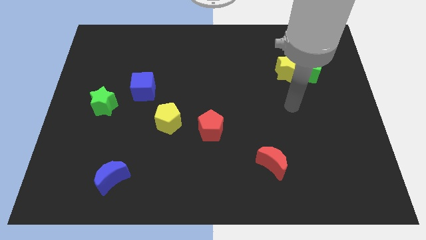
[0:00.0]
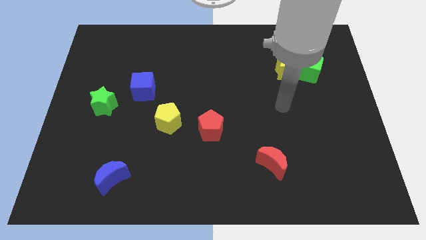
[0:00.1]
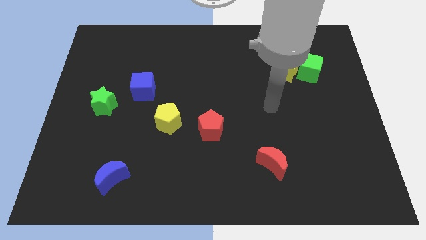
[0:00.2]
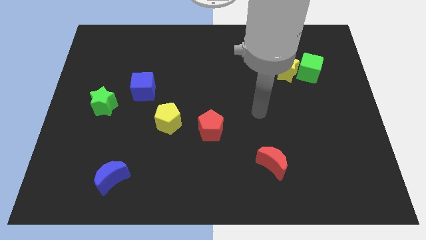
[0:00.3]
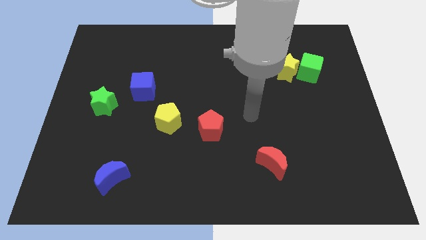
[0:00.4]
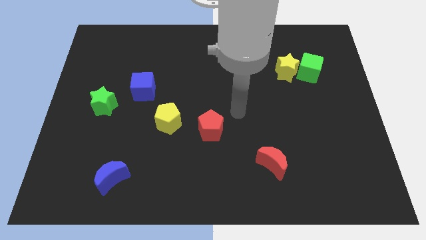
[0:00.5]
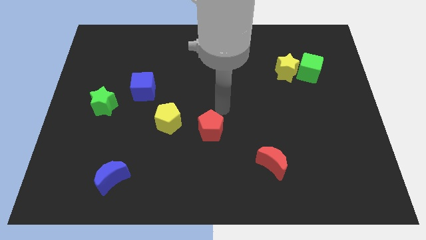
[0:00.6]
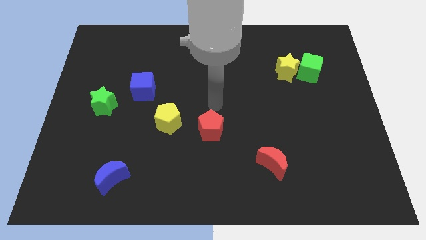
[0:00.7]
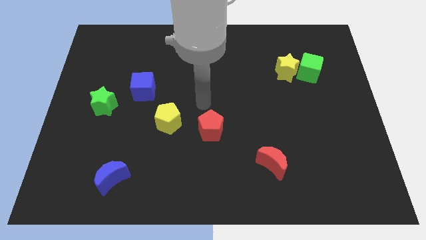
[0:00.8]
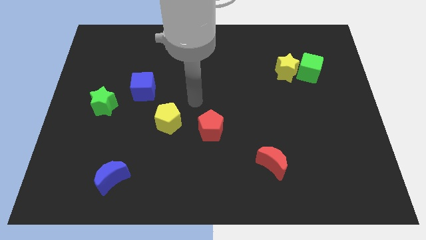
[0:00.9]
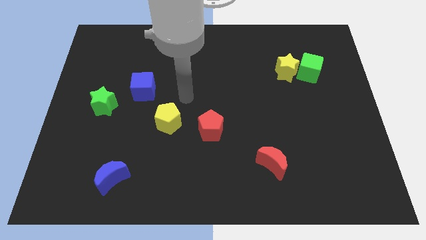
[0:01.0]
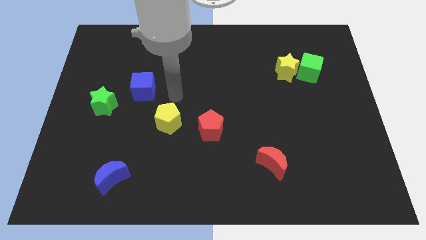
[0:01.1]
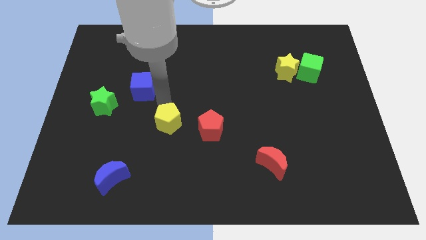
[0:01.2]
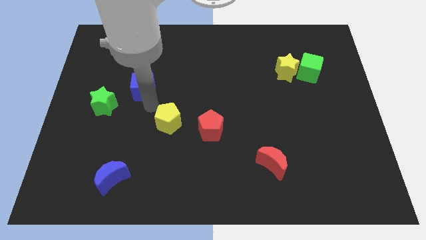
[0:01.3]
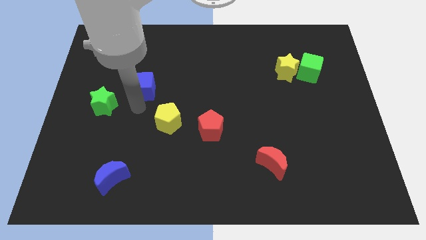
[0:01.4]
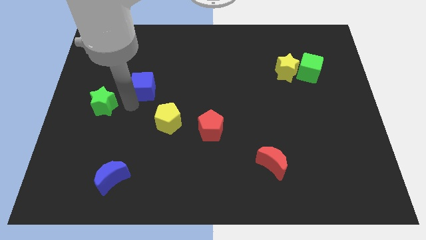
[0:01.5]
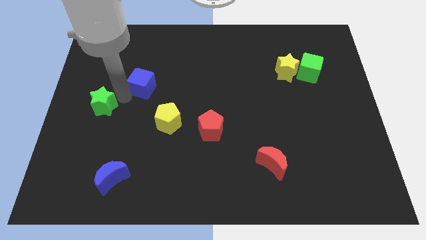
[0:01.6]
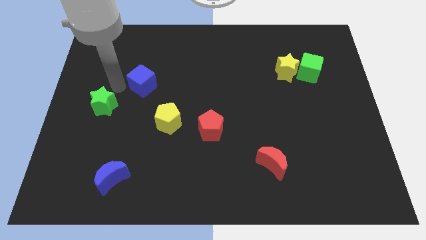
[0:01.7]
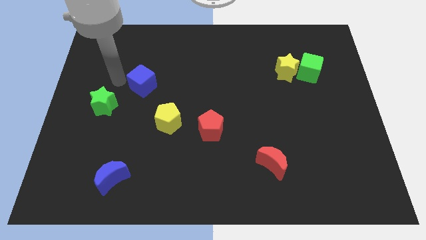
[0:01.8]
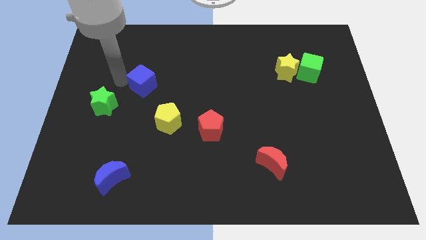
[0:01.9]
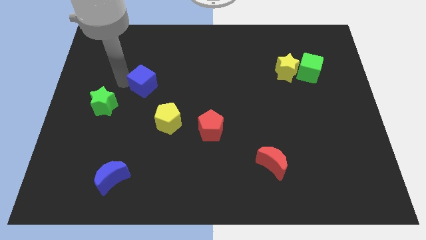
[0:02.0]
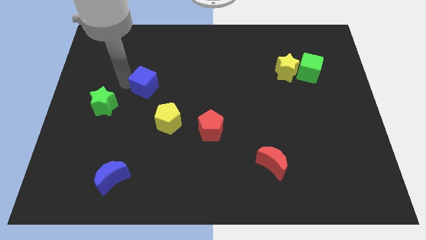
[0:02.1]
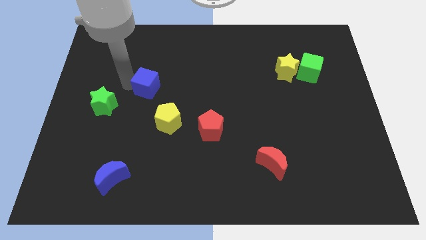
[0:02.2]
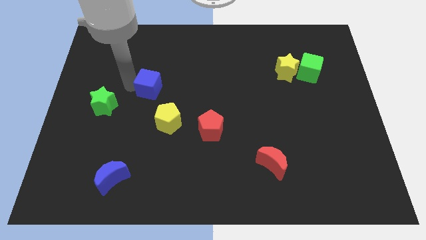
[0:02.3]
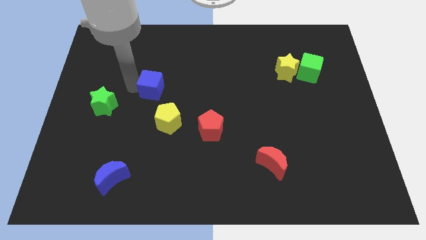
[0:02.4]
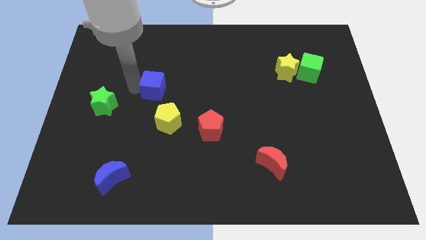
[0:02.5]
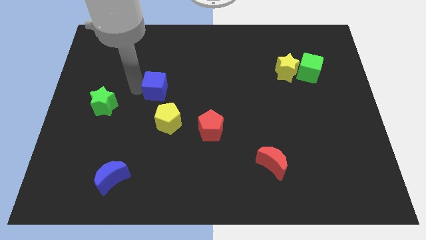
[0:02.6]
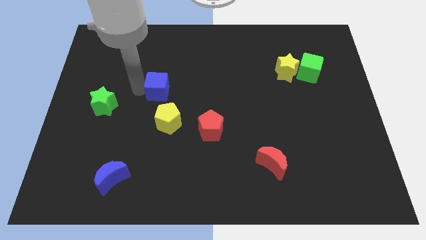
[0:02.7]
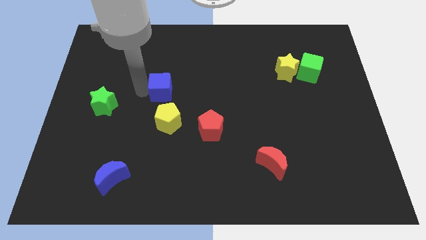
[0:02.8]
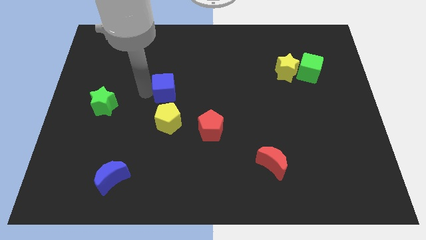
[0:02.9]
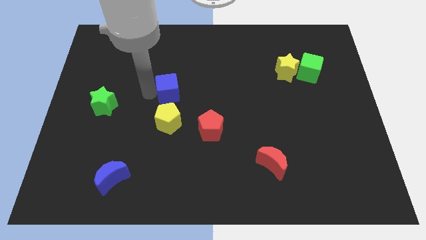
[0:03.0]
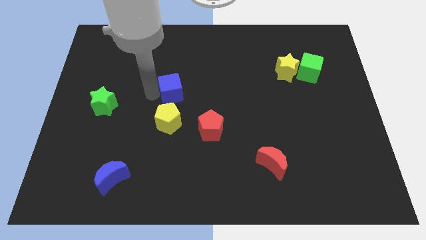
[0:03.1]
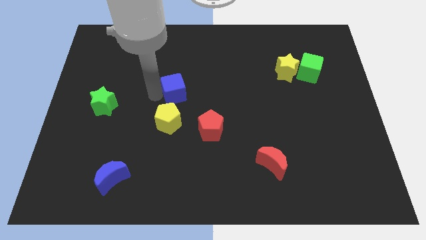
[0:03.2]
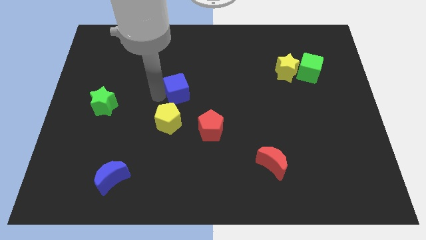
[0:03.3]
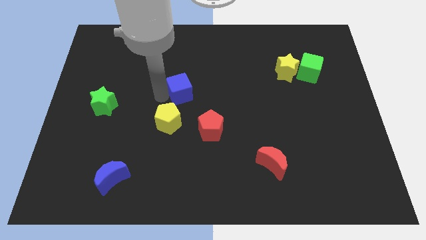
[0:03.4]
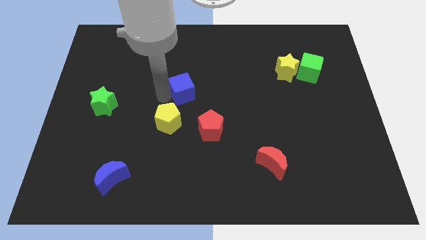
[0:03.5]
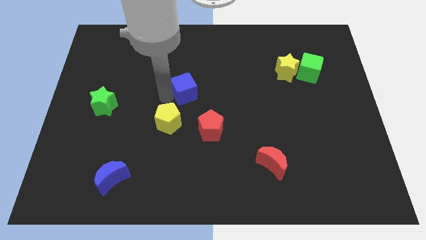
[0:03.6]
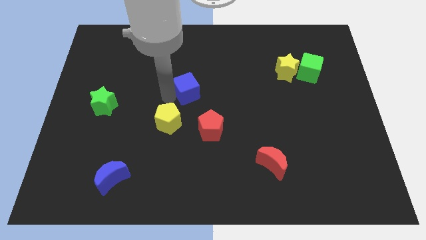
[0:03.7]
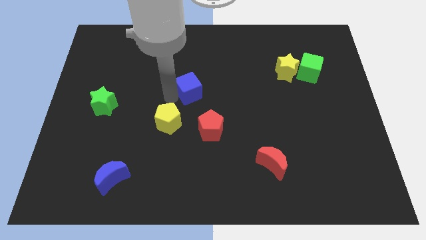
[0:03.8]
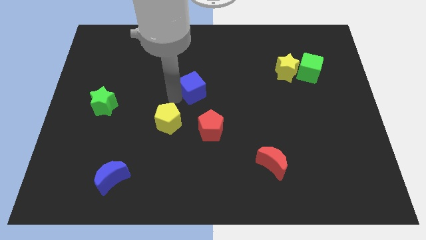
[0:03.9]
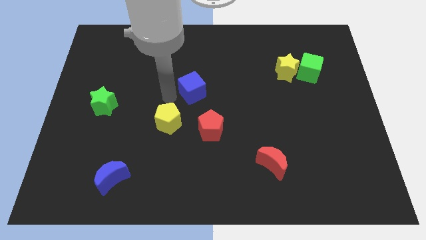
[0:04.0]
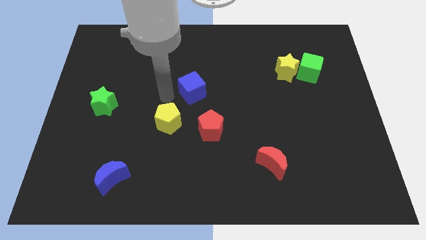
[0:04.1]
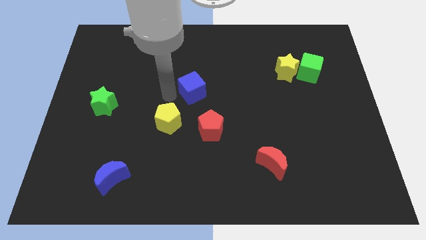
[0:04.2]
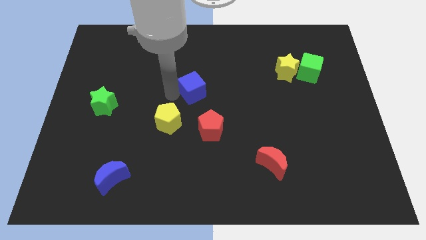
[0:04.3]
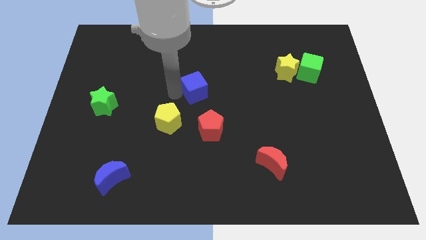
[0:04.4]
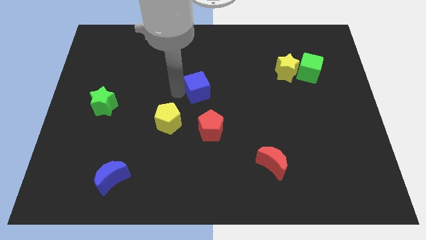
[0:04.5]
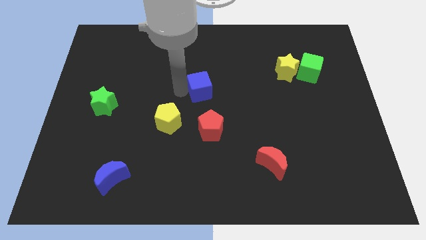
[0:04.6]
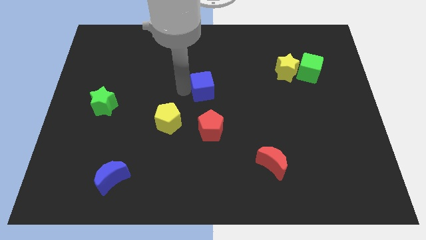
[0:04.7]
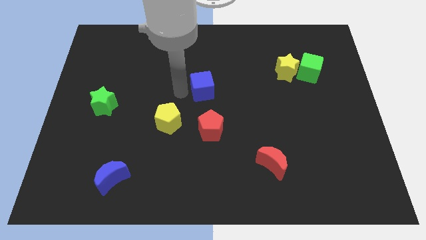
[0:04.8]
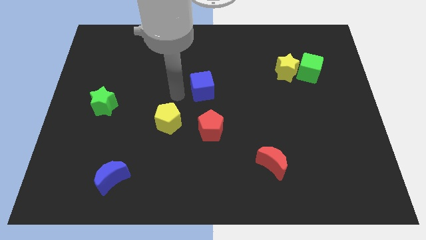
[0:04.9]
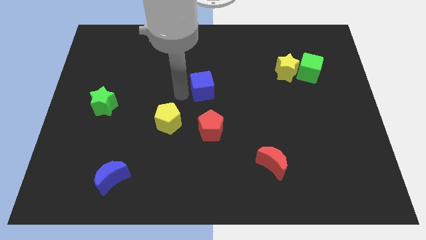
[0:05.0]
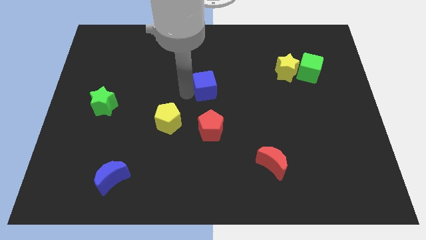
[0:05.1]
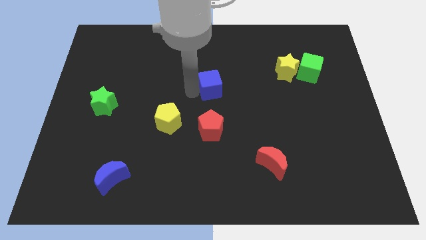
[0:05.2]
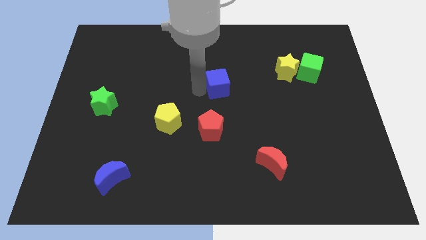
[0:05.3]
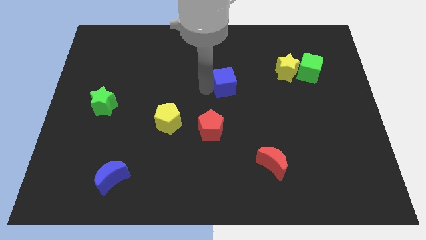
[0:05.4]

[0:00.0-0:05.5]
slide the blue cube right

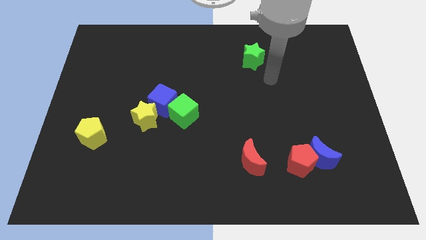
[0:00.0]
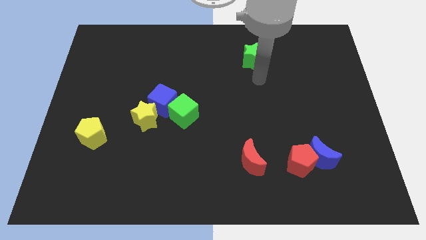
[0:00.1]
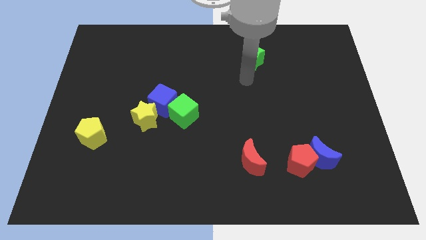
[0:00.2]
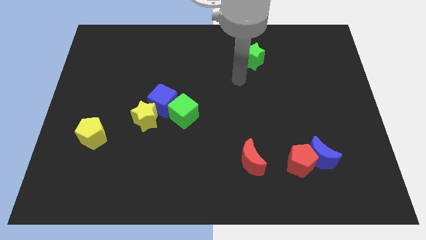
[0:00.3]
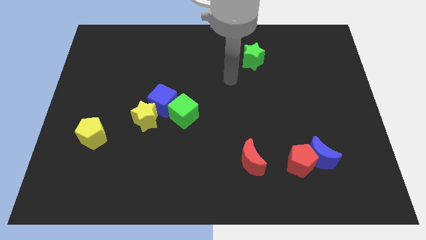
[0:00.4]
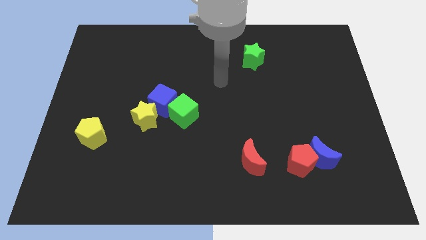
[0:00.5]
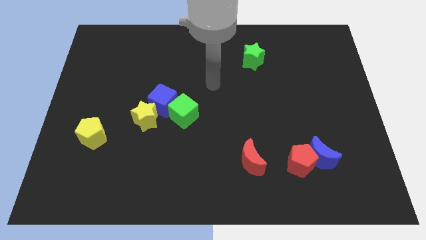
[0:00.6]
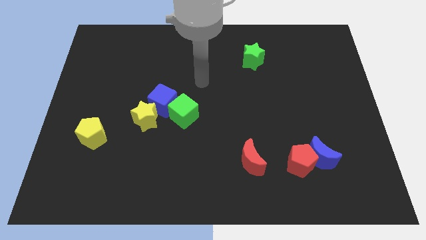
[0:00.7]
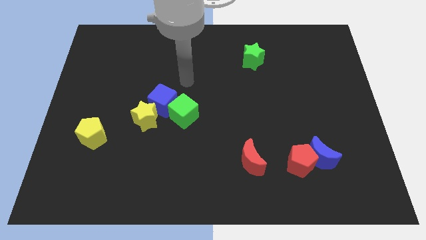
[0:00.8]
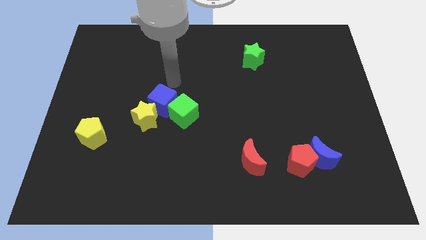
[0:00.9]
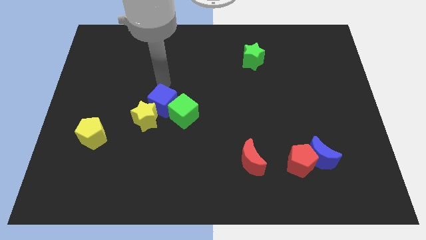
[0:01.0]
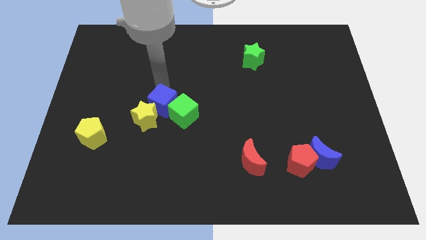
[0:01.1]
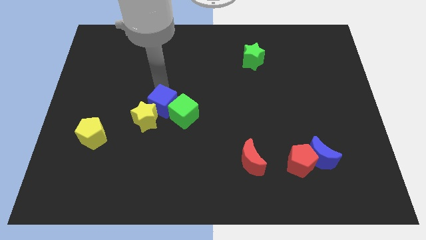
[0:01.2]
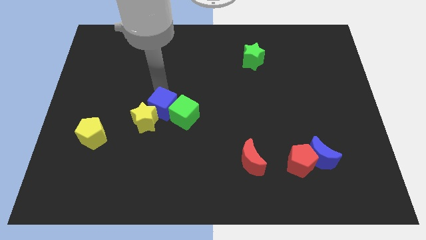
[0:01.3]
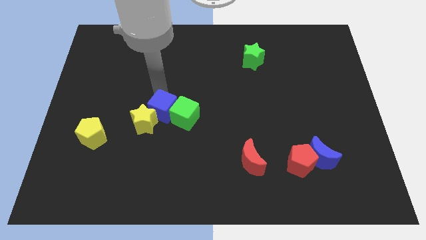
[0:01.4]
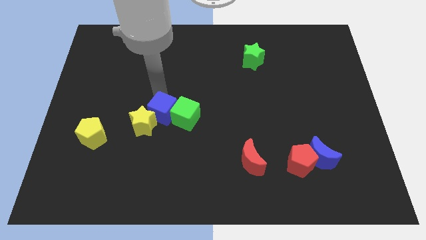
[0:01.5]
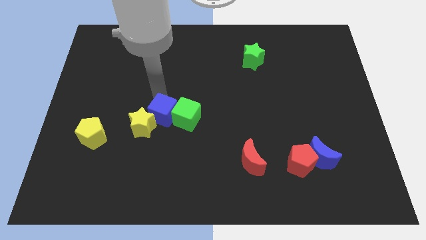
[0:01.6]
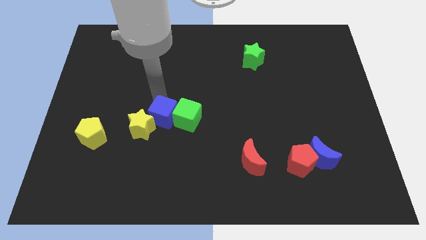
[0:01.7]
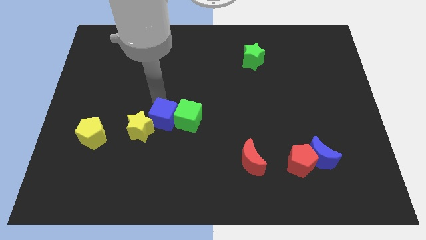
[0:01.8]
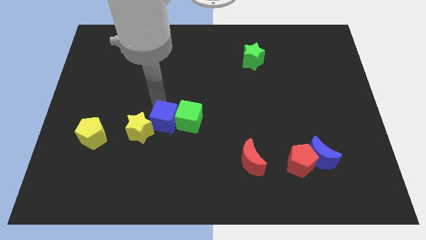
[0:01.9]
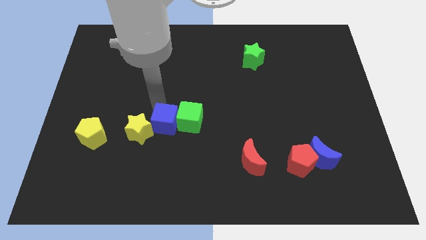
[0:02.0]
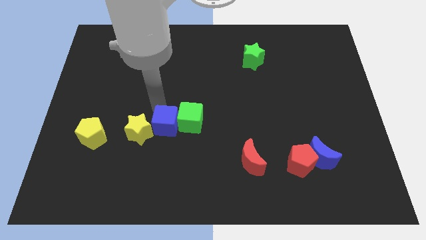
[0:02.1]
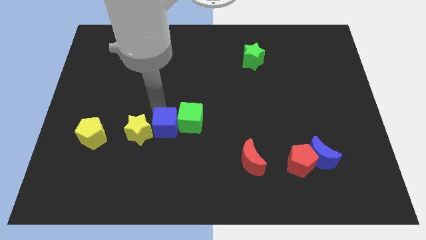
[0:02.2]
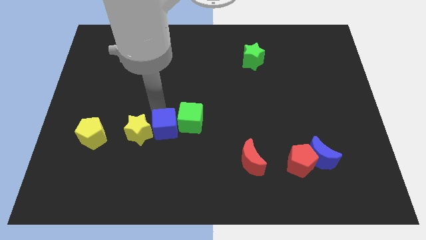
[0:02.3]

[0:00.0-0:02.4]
slightly move the blue cube downwards
